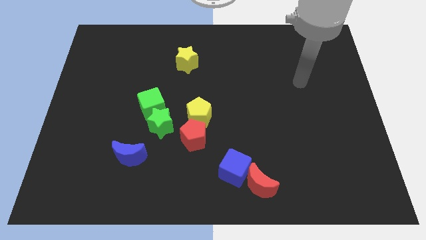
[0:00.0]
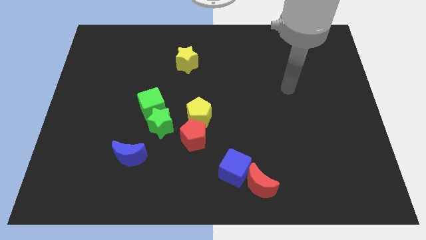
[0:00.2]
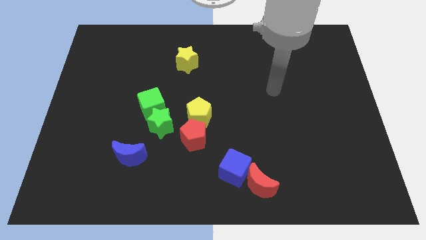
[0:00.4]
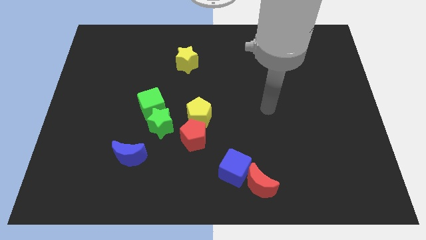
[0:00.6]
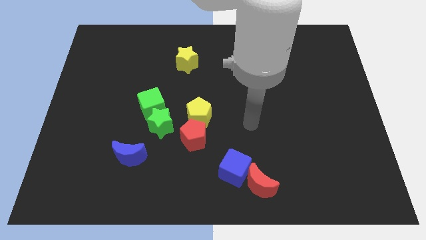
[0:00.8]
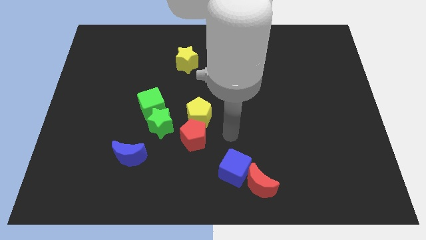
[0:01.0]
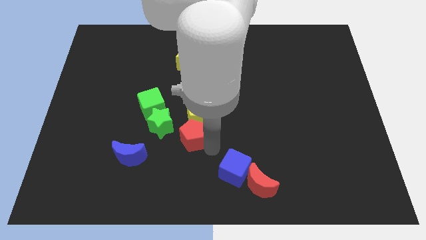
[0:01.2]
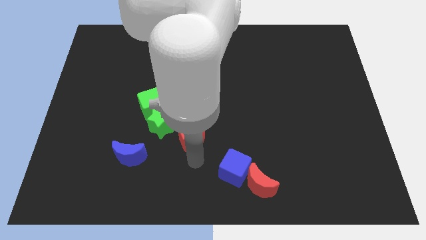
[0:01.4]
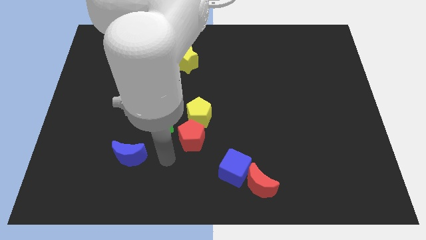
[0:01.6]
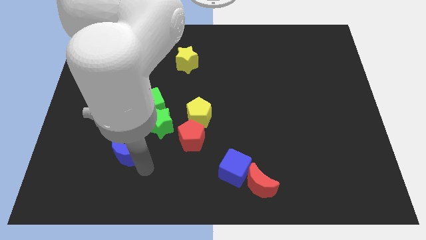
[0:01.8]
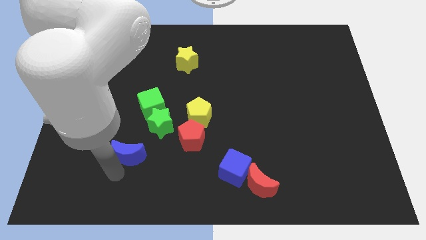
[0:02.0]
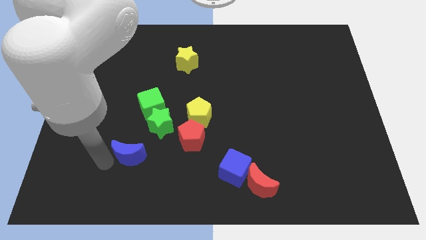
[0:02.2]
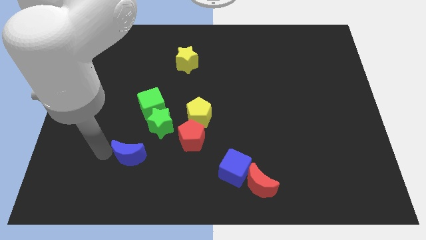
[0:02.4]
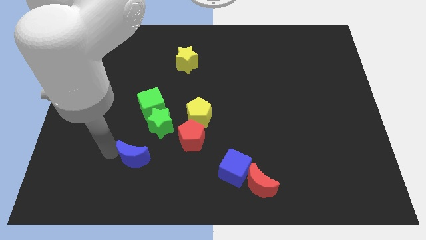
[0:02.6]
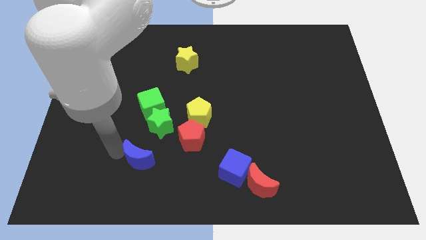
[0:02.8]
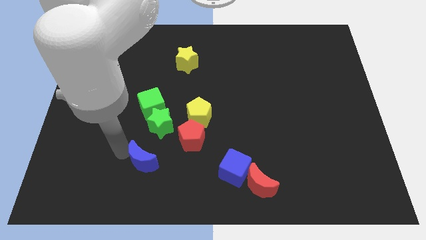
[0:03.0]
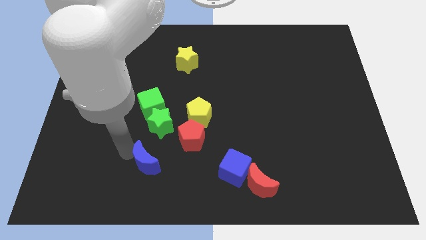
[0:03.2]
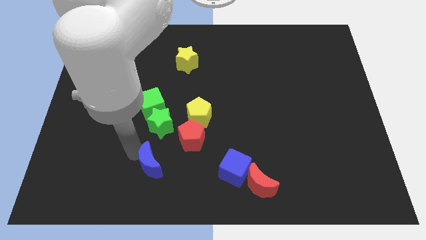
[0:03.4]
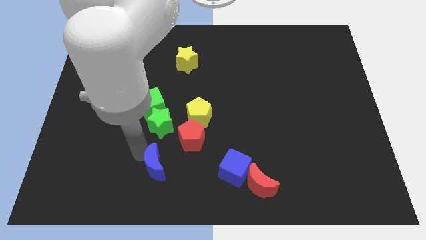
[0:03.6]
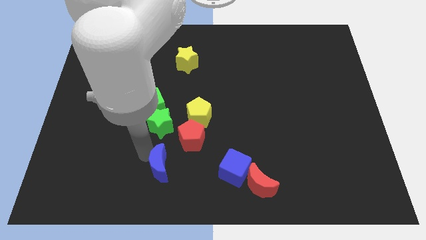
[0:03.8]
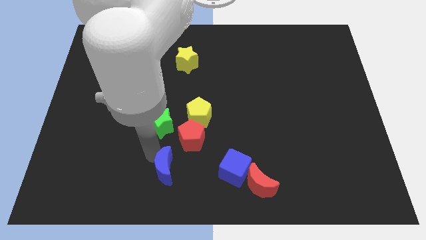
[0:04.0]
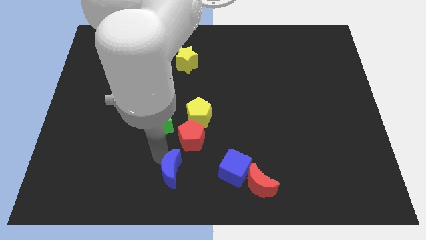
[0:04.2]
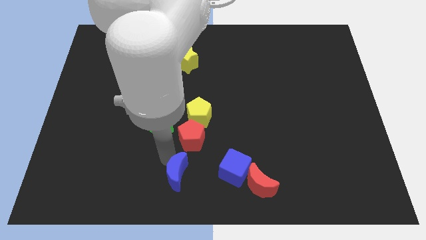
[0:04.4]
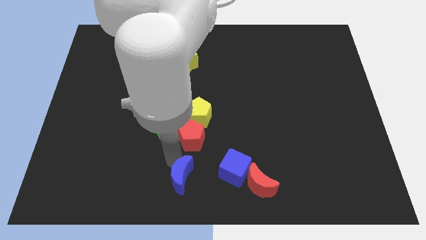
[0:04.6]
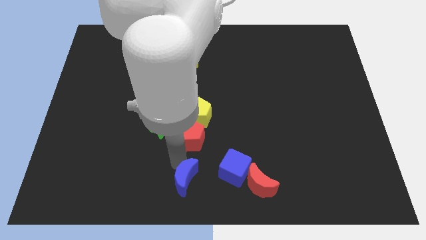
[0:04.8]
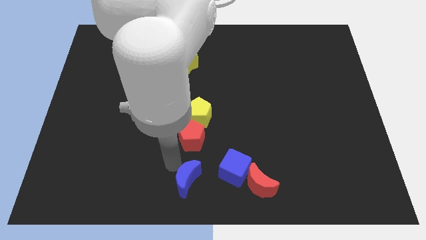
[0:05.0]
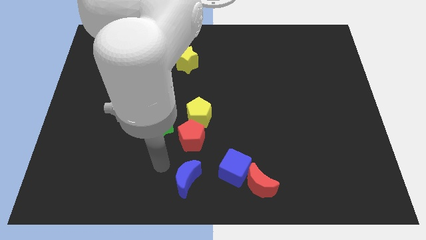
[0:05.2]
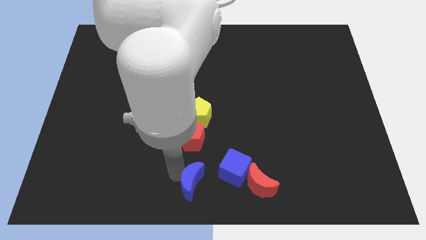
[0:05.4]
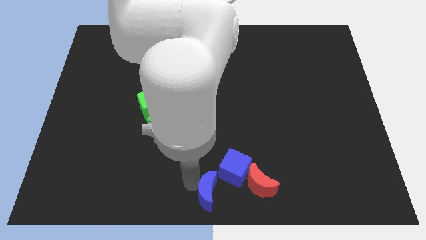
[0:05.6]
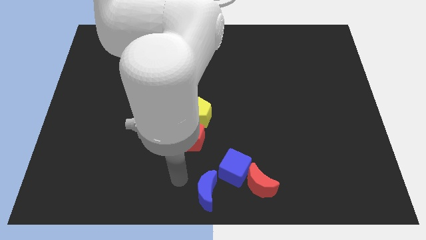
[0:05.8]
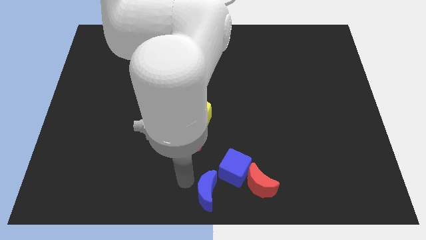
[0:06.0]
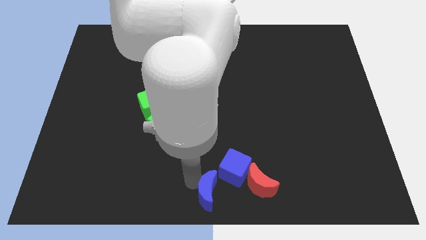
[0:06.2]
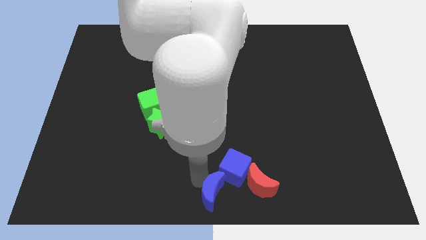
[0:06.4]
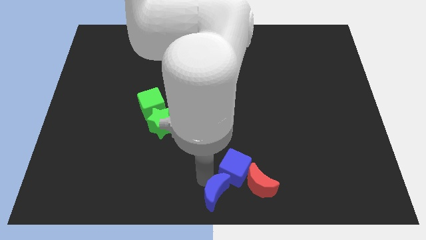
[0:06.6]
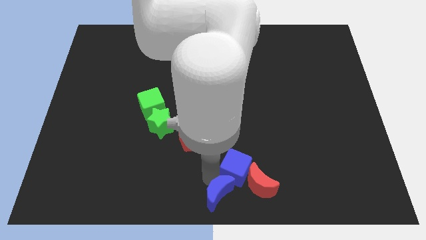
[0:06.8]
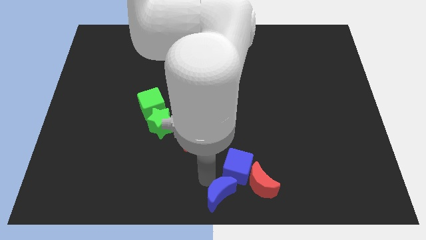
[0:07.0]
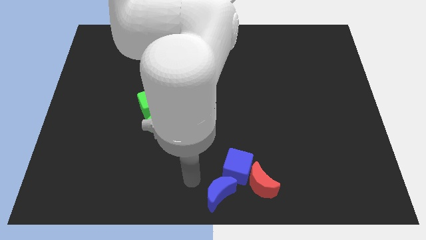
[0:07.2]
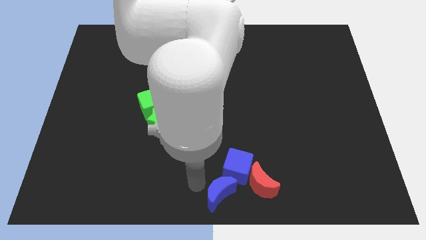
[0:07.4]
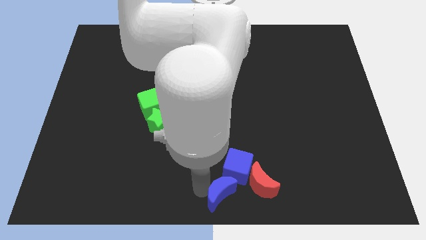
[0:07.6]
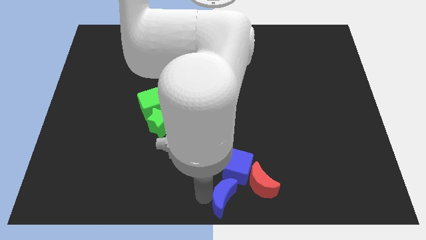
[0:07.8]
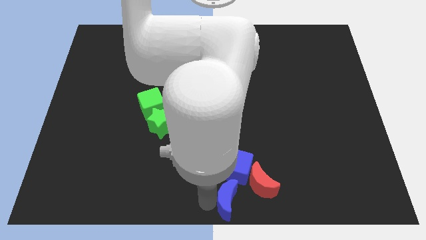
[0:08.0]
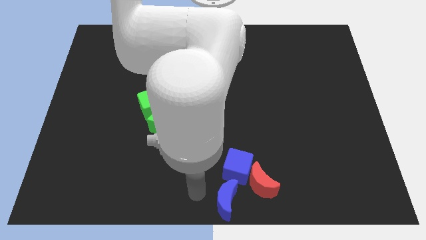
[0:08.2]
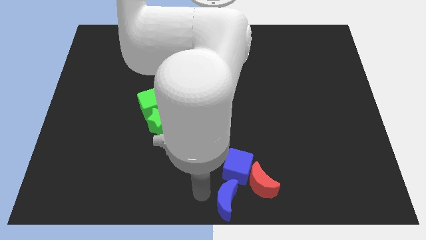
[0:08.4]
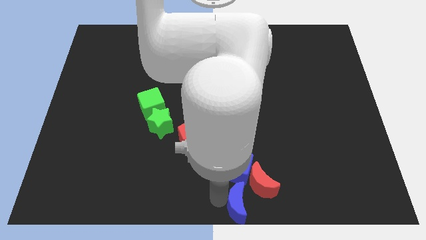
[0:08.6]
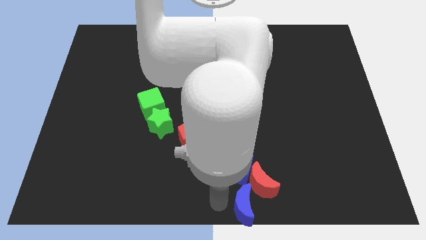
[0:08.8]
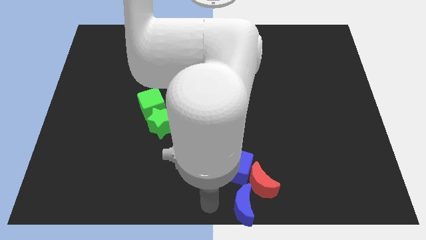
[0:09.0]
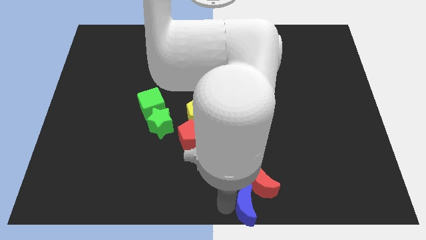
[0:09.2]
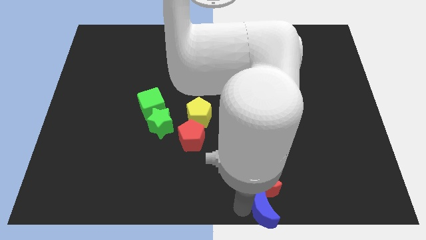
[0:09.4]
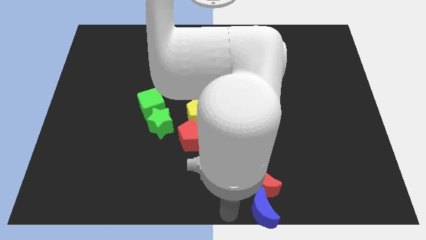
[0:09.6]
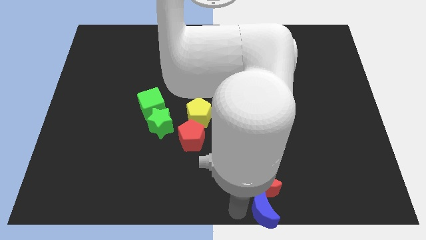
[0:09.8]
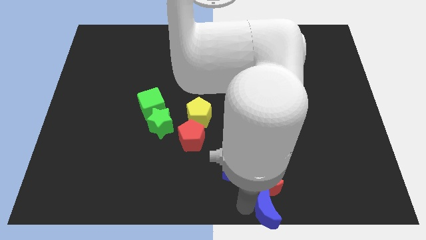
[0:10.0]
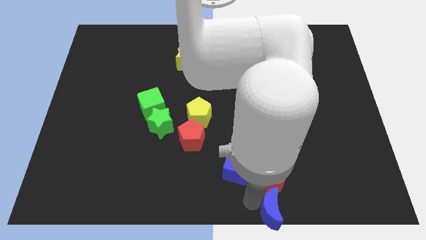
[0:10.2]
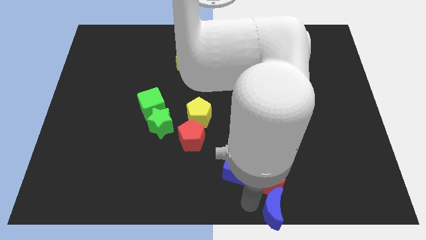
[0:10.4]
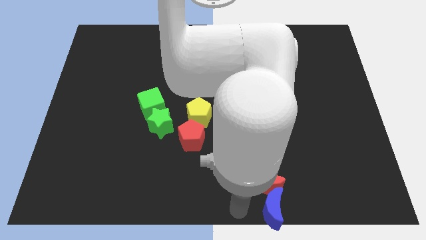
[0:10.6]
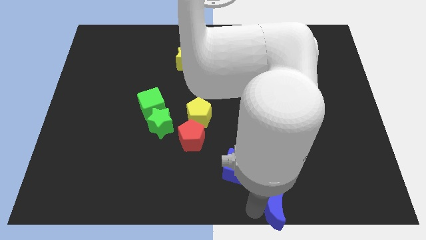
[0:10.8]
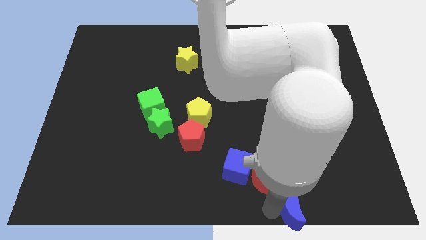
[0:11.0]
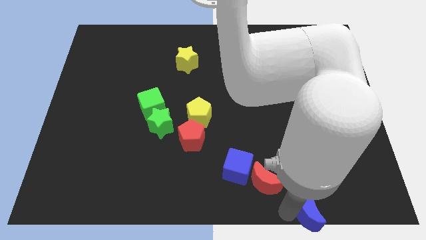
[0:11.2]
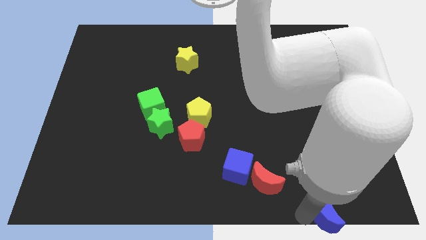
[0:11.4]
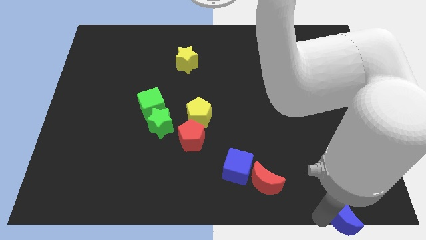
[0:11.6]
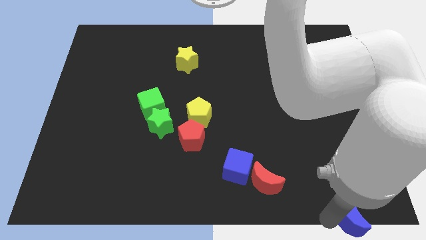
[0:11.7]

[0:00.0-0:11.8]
push the blue moon to the bottom right

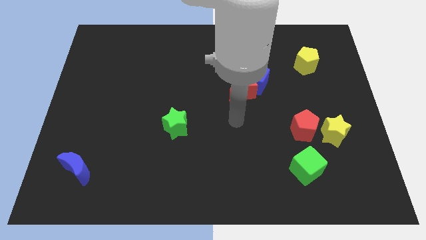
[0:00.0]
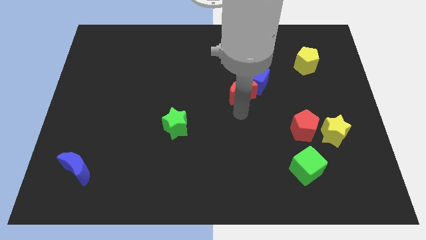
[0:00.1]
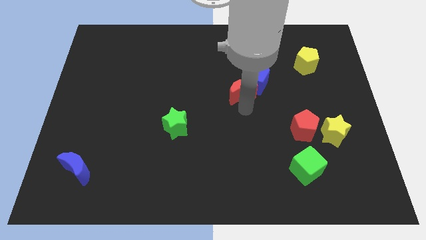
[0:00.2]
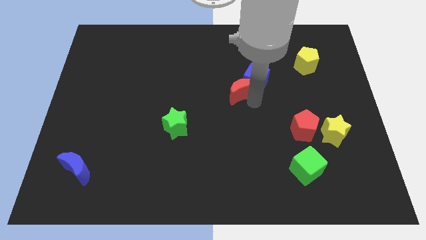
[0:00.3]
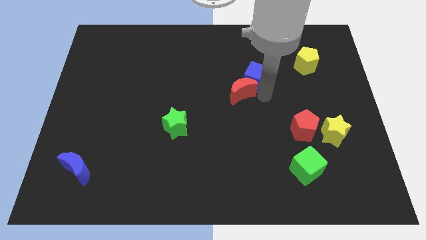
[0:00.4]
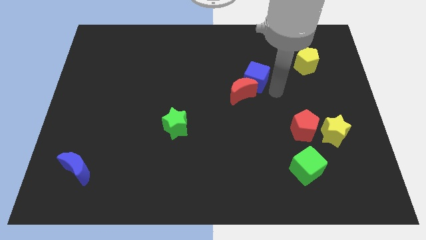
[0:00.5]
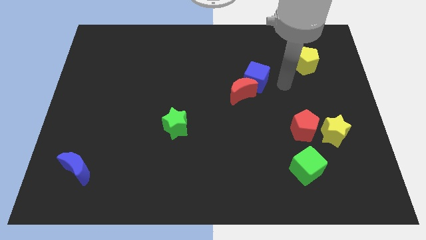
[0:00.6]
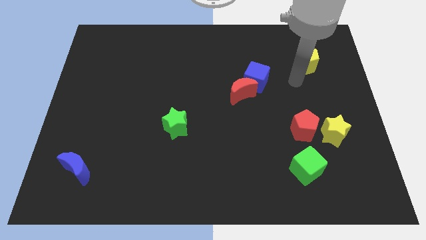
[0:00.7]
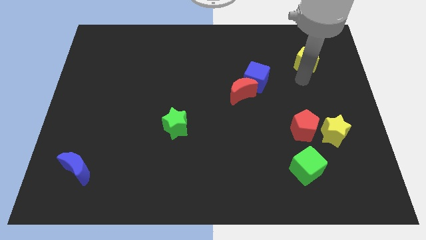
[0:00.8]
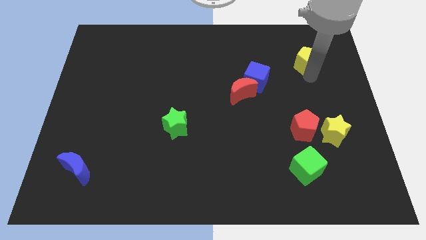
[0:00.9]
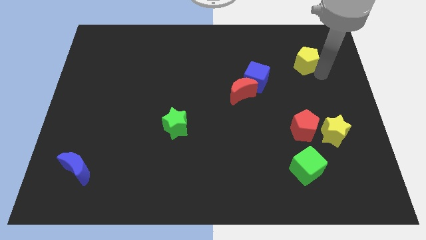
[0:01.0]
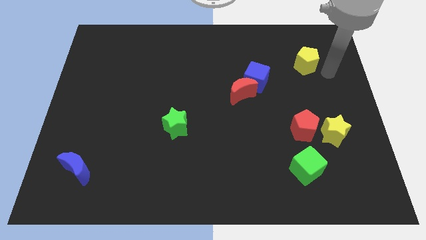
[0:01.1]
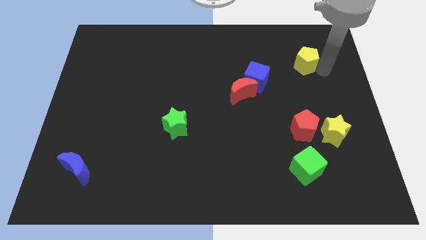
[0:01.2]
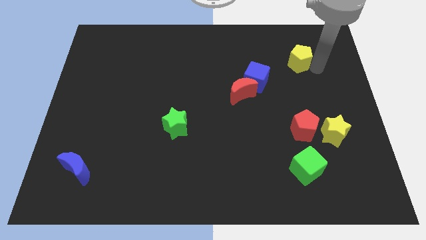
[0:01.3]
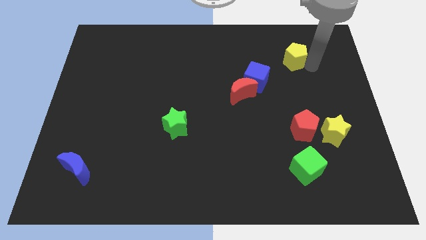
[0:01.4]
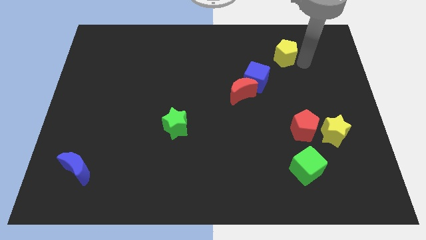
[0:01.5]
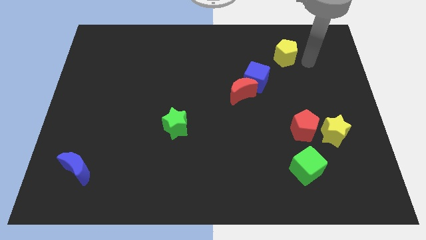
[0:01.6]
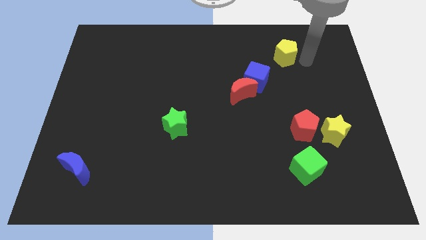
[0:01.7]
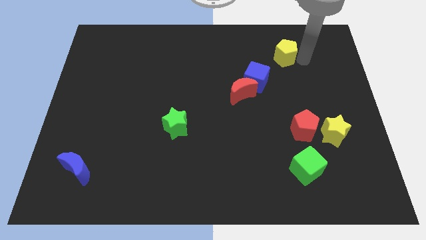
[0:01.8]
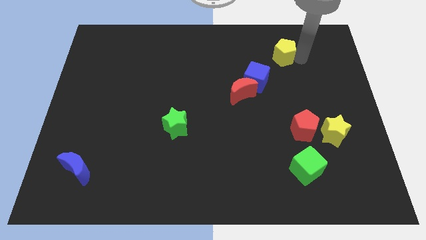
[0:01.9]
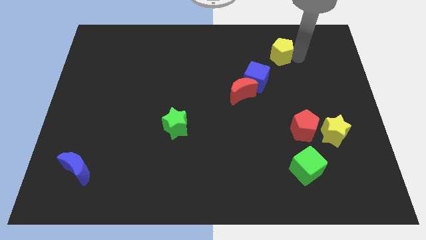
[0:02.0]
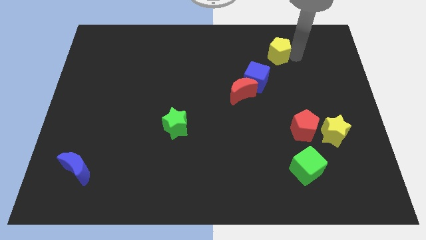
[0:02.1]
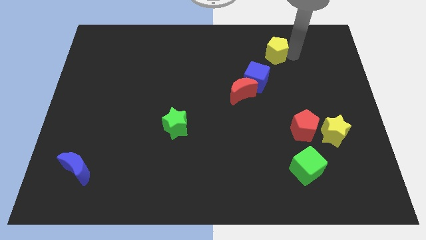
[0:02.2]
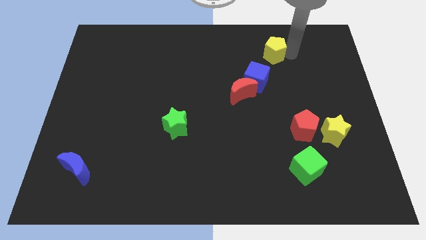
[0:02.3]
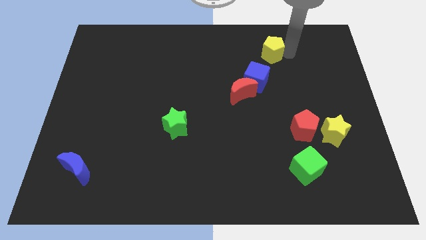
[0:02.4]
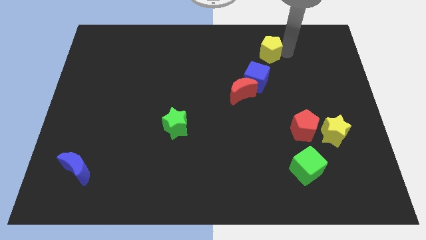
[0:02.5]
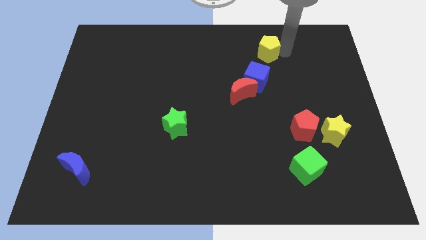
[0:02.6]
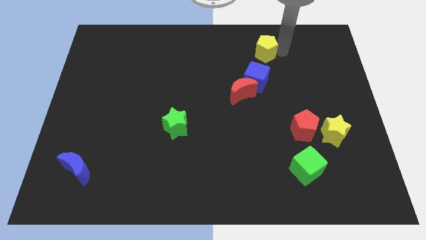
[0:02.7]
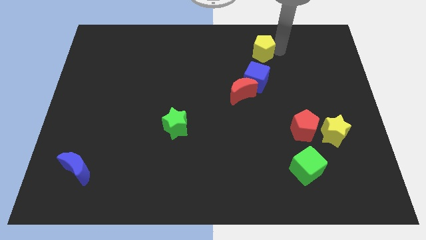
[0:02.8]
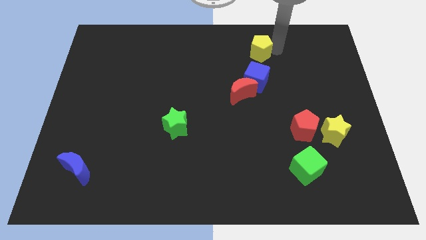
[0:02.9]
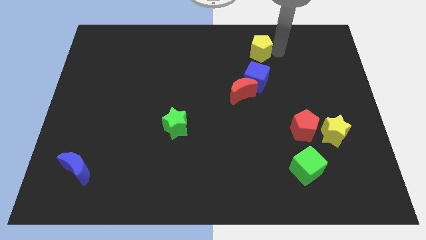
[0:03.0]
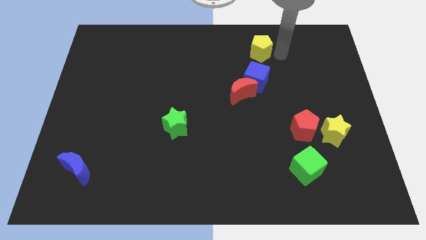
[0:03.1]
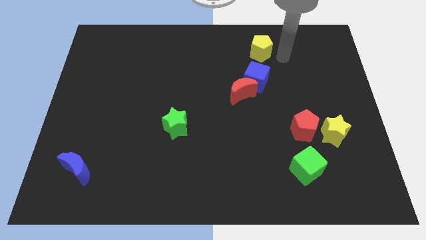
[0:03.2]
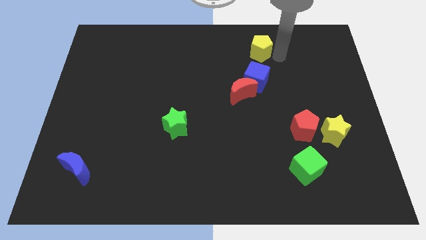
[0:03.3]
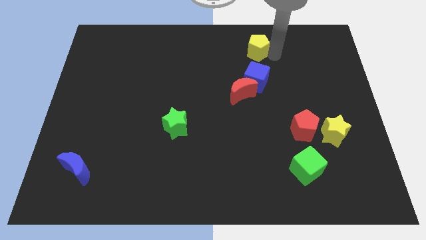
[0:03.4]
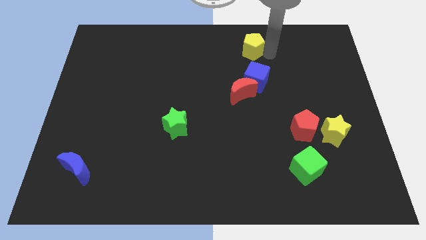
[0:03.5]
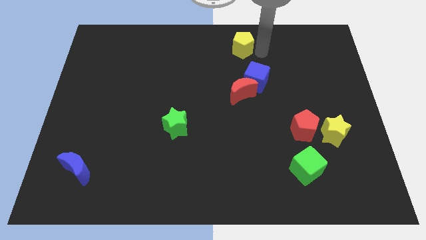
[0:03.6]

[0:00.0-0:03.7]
move the yellow pentagon to the top
